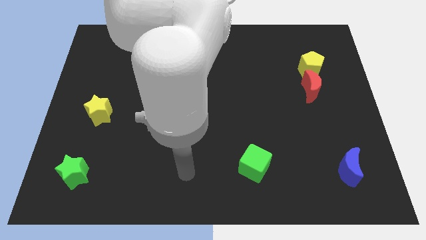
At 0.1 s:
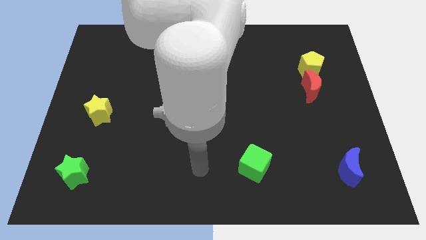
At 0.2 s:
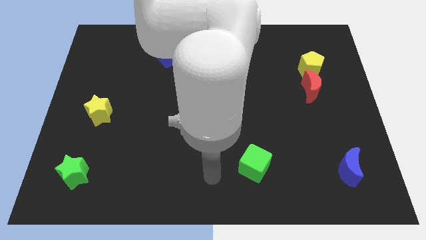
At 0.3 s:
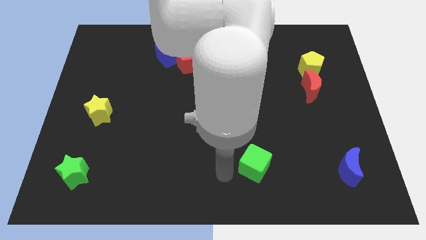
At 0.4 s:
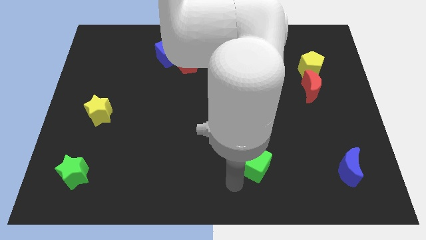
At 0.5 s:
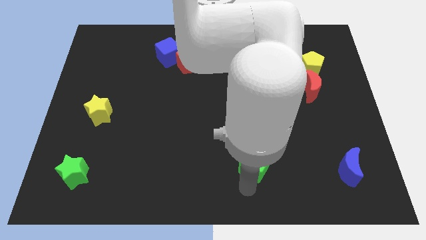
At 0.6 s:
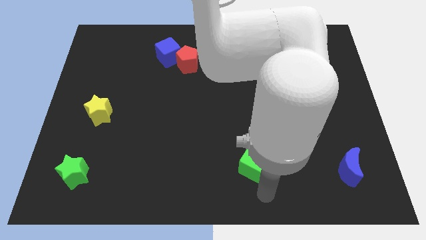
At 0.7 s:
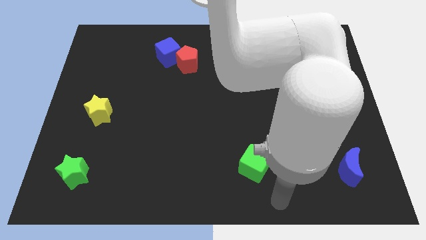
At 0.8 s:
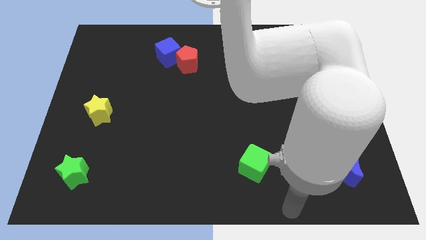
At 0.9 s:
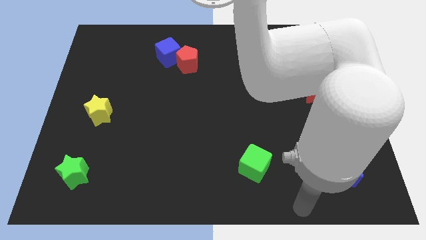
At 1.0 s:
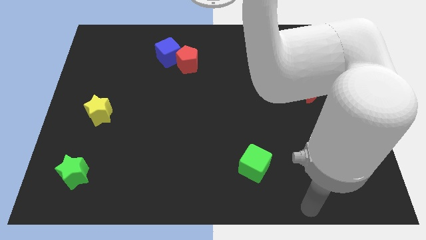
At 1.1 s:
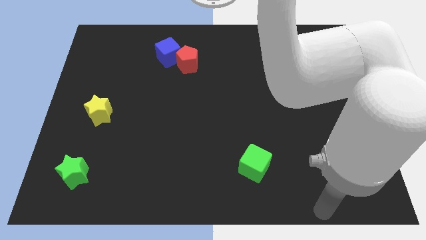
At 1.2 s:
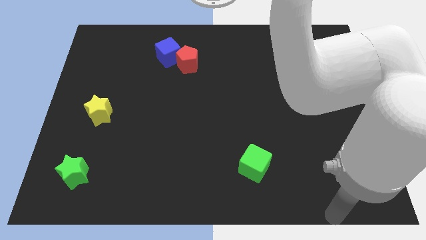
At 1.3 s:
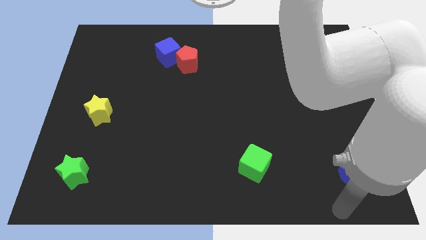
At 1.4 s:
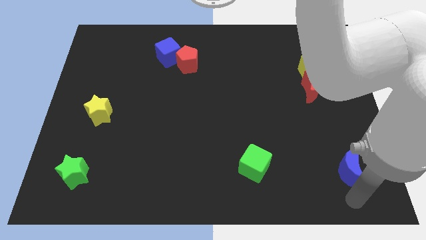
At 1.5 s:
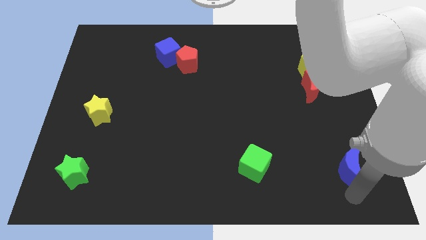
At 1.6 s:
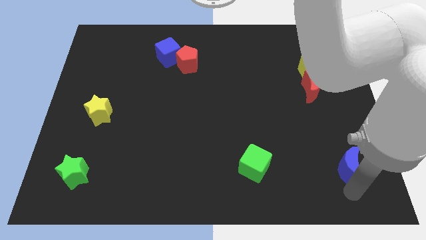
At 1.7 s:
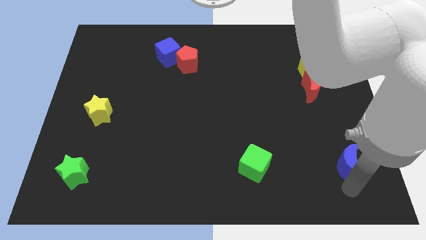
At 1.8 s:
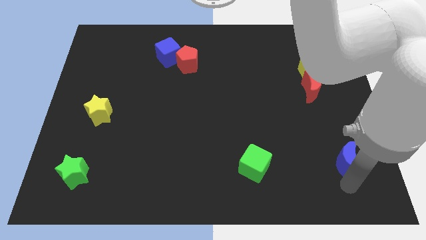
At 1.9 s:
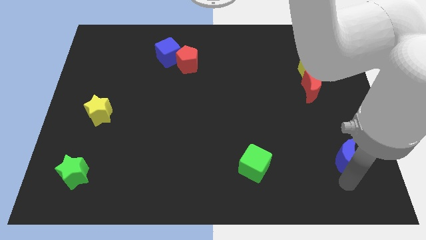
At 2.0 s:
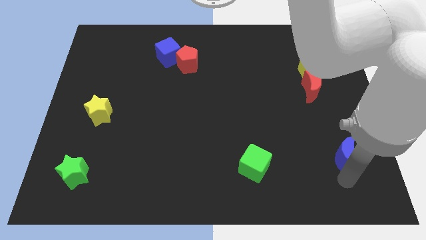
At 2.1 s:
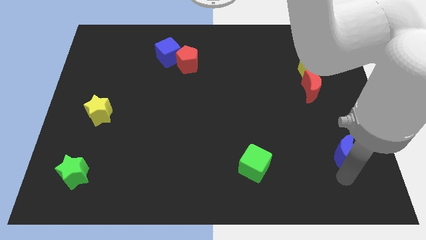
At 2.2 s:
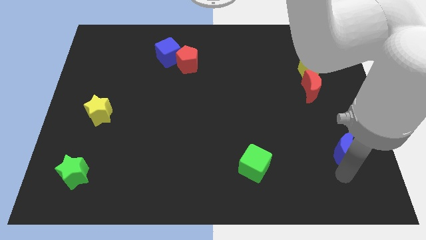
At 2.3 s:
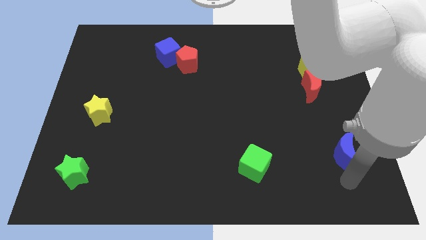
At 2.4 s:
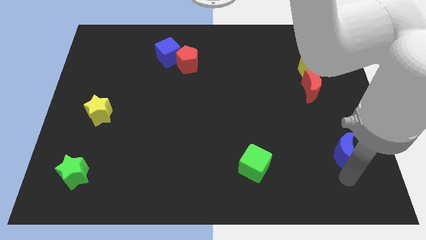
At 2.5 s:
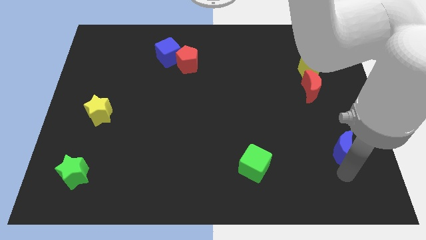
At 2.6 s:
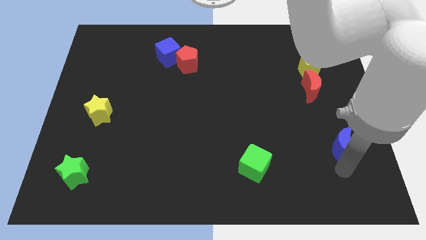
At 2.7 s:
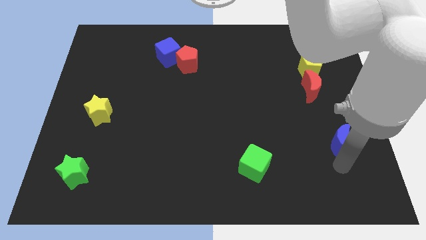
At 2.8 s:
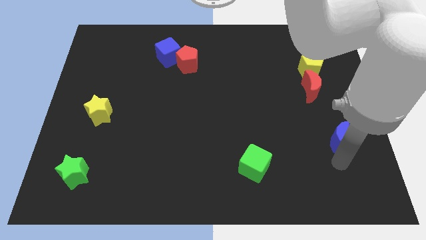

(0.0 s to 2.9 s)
slide the blue moon slightly up

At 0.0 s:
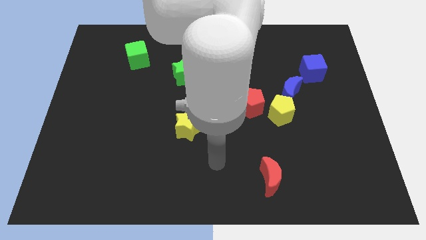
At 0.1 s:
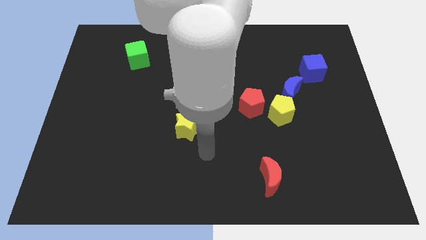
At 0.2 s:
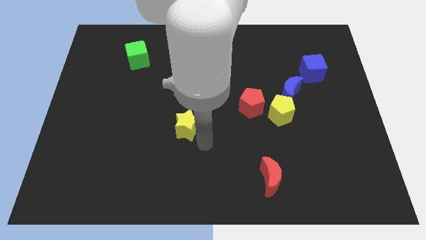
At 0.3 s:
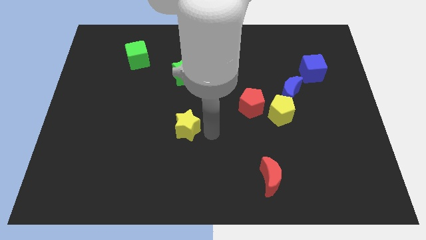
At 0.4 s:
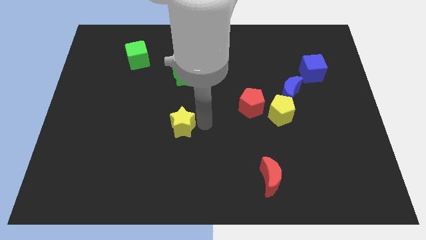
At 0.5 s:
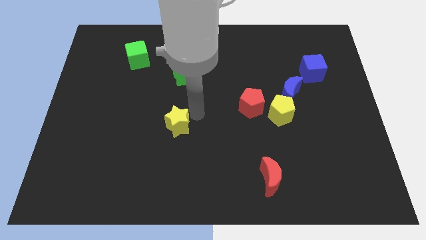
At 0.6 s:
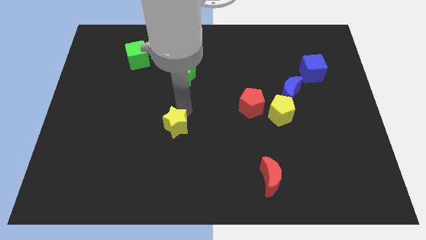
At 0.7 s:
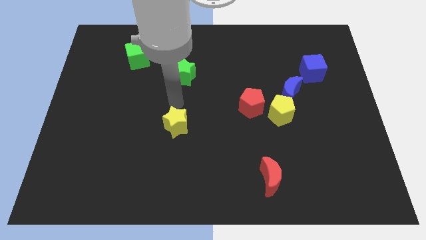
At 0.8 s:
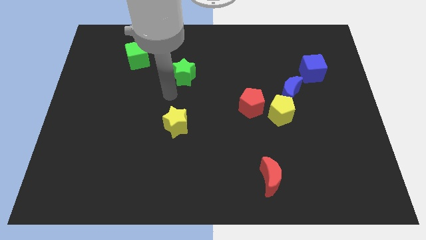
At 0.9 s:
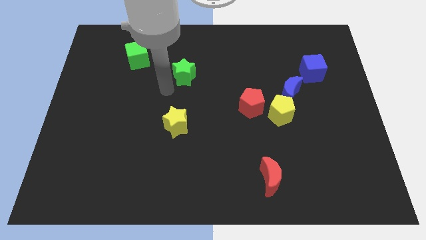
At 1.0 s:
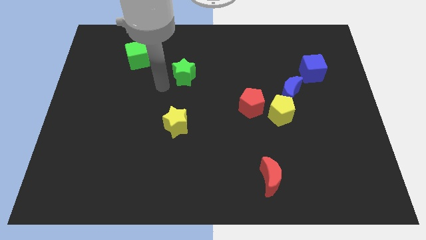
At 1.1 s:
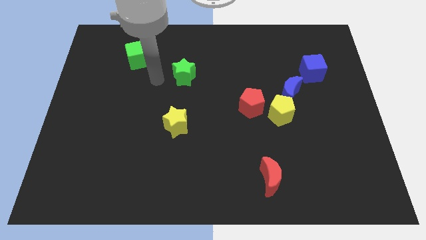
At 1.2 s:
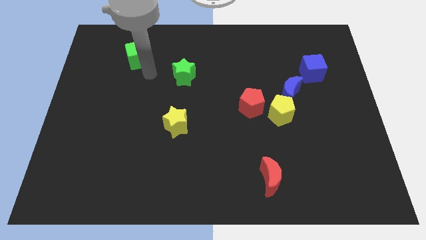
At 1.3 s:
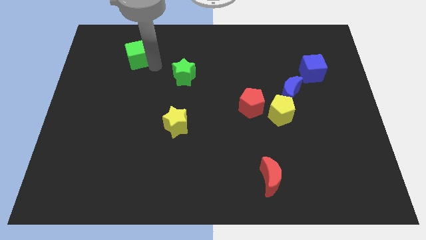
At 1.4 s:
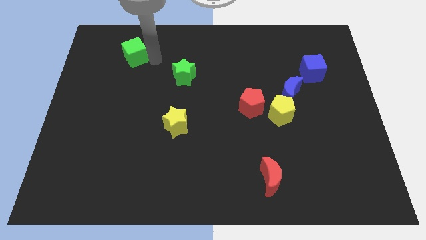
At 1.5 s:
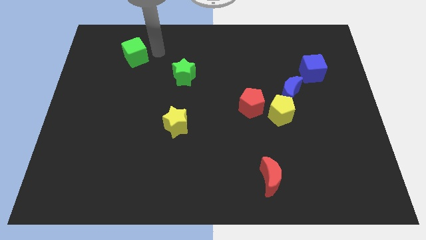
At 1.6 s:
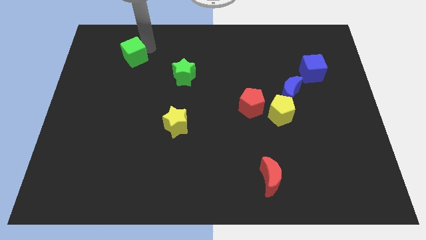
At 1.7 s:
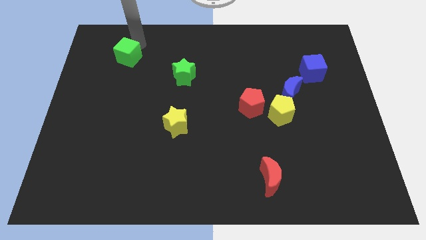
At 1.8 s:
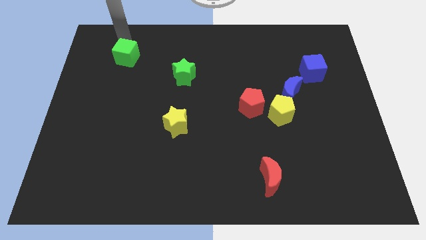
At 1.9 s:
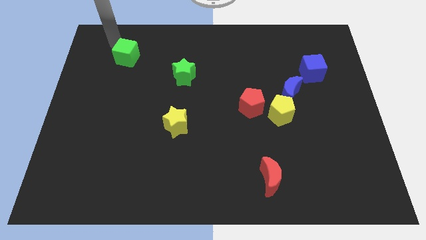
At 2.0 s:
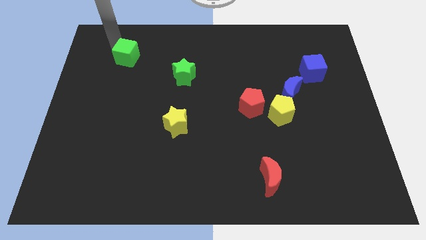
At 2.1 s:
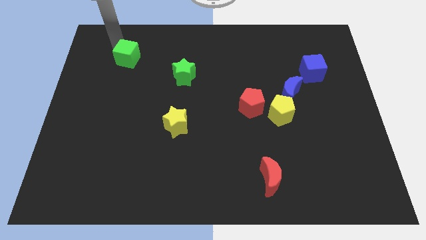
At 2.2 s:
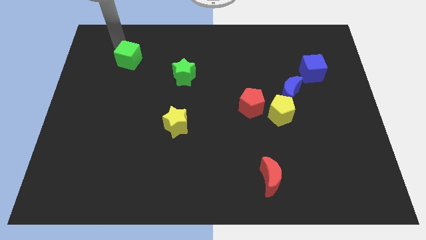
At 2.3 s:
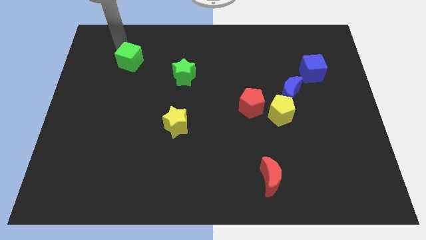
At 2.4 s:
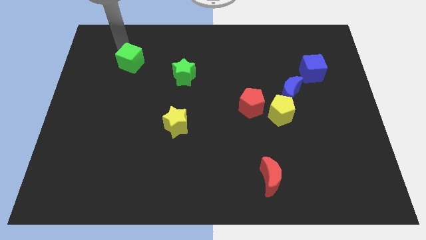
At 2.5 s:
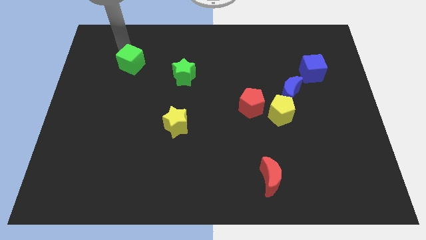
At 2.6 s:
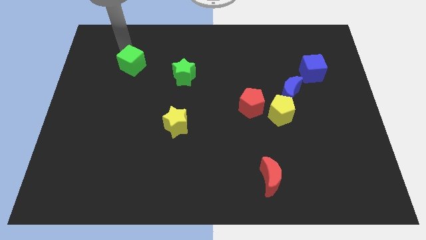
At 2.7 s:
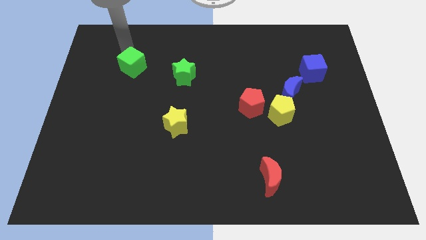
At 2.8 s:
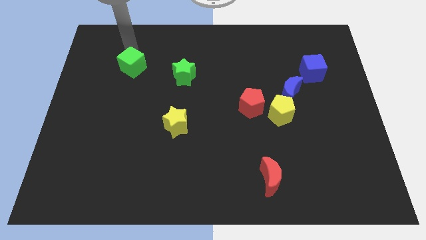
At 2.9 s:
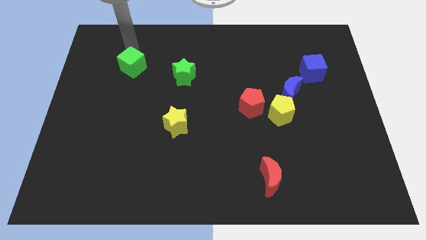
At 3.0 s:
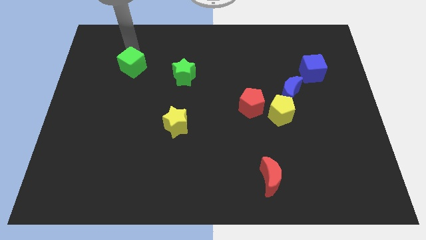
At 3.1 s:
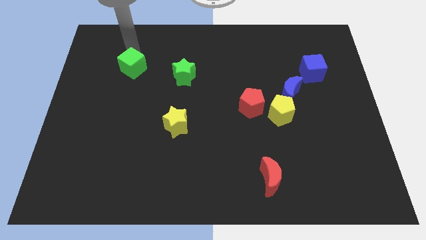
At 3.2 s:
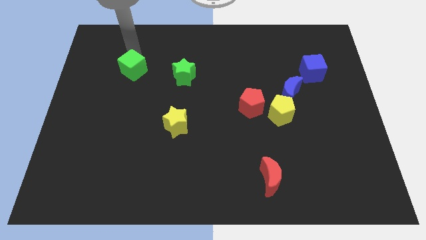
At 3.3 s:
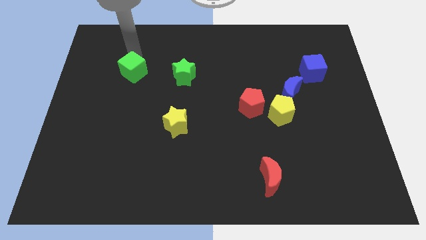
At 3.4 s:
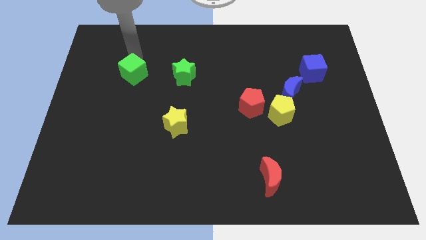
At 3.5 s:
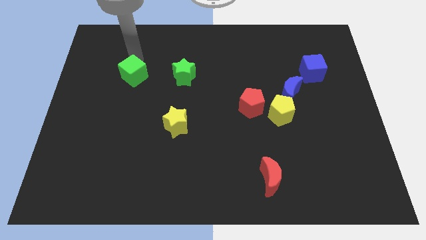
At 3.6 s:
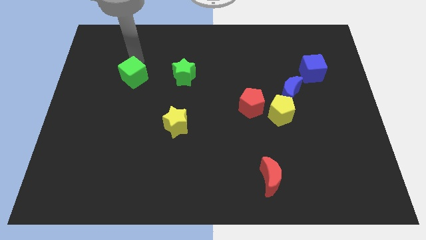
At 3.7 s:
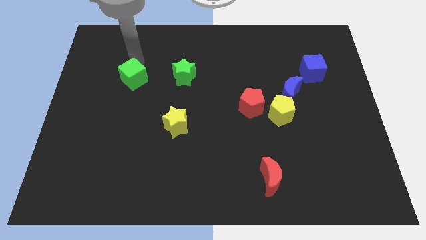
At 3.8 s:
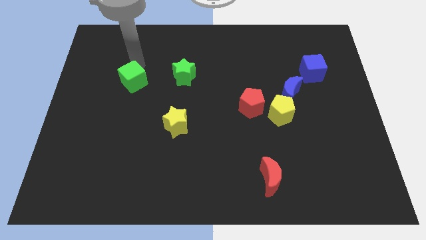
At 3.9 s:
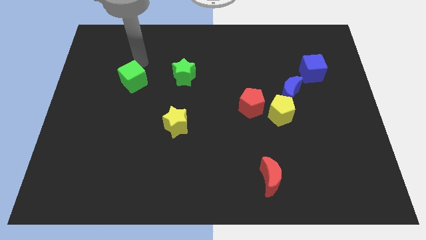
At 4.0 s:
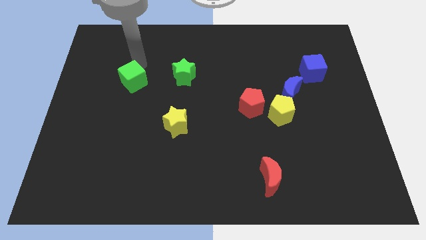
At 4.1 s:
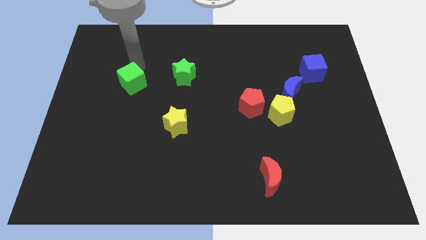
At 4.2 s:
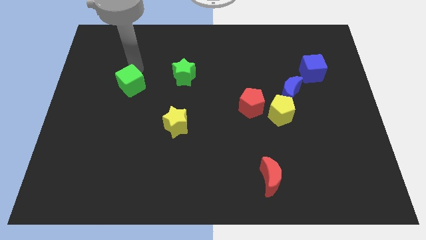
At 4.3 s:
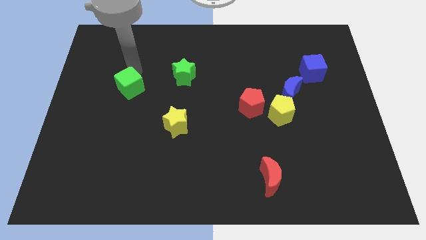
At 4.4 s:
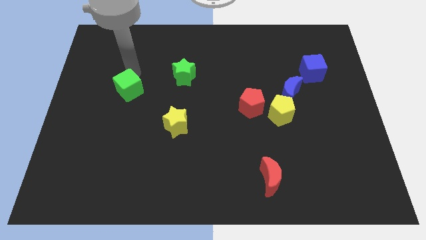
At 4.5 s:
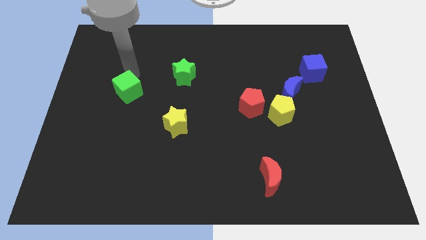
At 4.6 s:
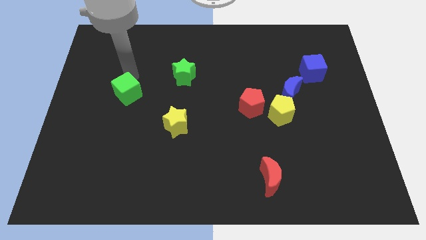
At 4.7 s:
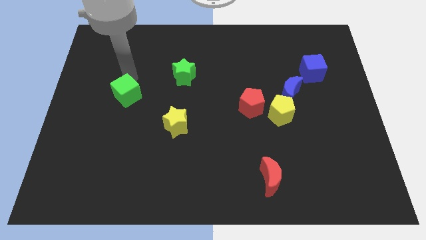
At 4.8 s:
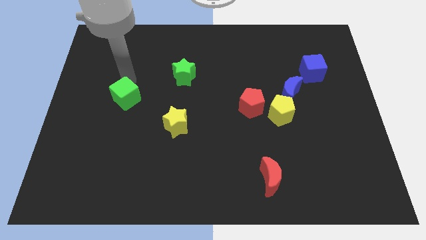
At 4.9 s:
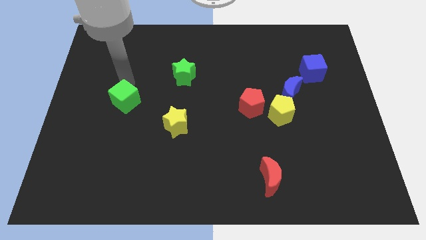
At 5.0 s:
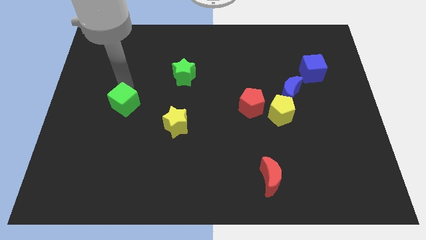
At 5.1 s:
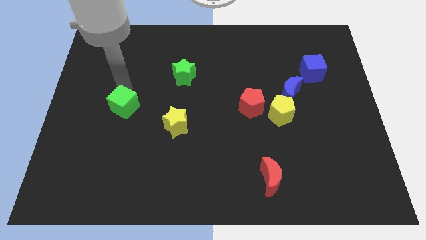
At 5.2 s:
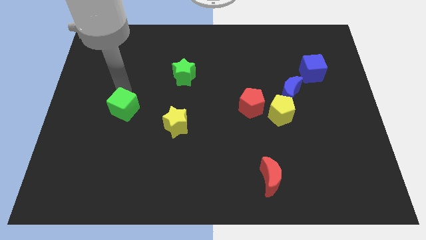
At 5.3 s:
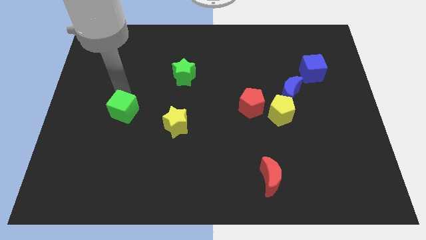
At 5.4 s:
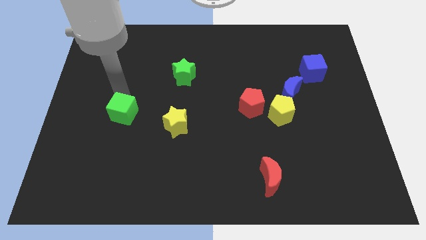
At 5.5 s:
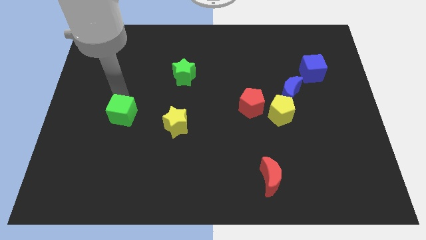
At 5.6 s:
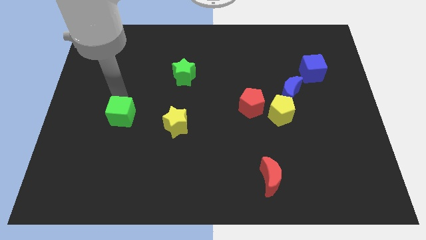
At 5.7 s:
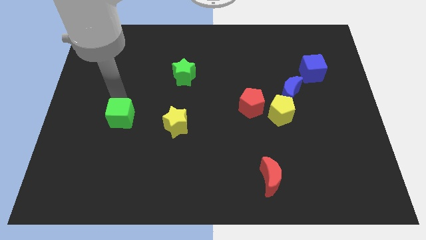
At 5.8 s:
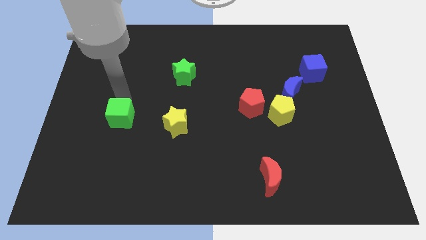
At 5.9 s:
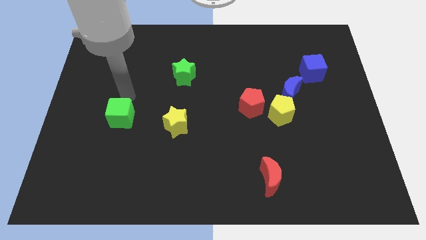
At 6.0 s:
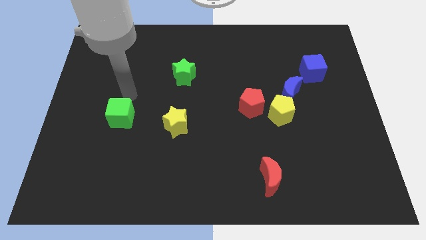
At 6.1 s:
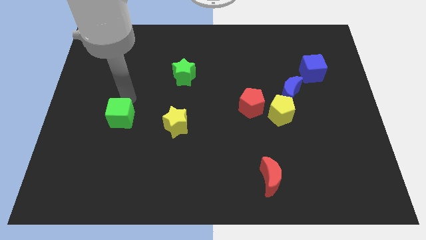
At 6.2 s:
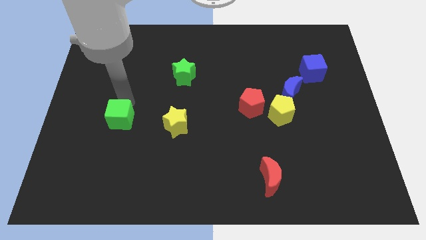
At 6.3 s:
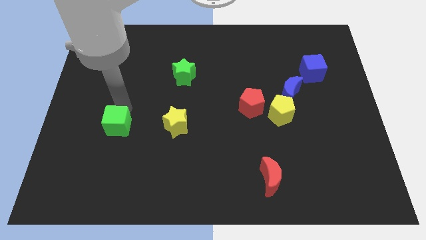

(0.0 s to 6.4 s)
move the green cube downwards
